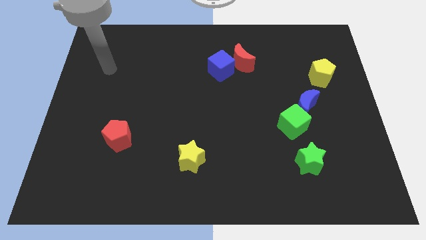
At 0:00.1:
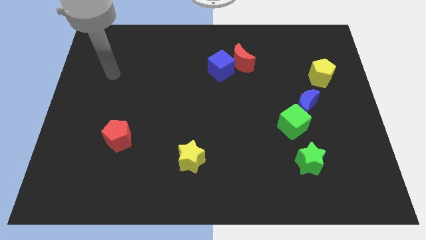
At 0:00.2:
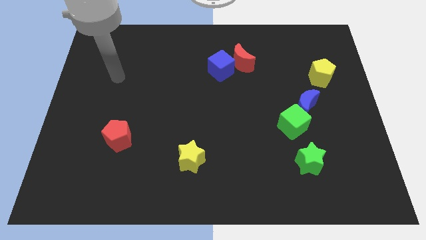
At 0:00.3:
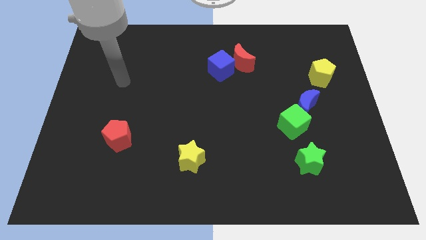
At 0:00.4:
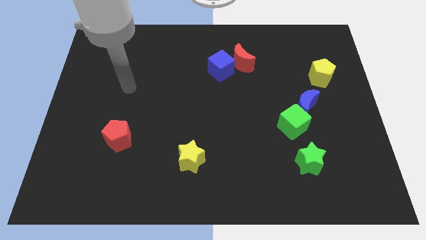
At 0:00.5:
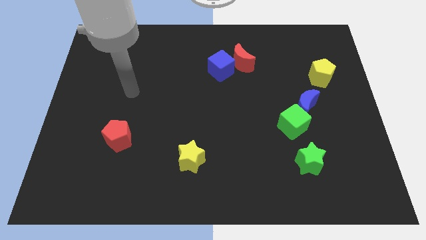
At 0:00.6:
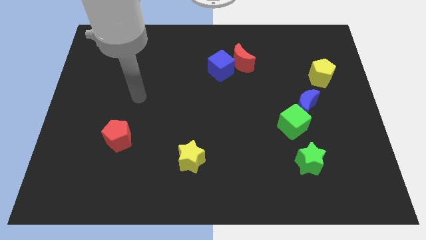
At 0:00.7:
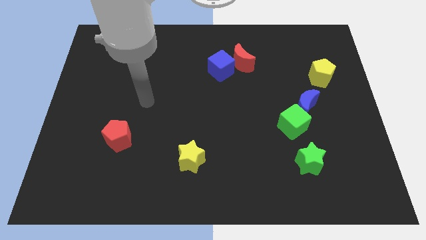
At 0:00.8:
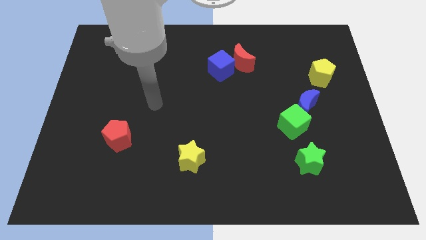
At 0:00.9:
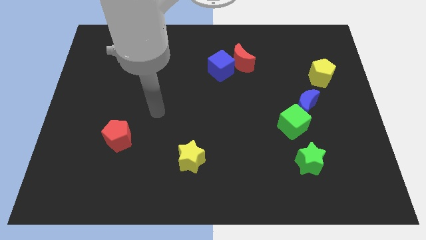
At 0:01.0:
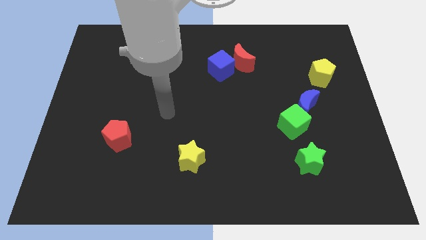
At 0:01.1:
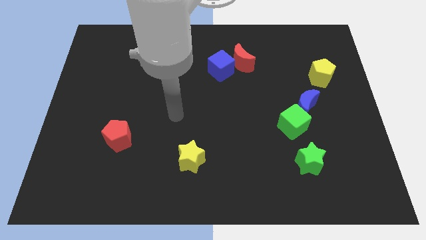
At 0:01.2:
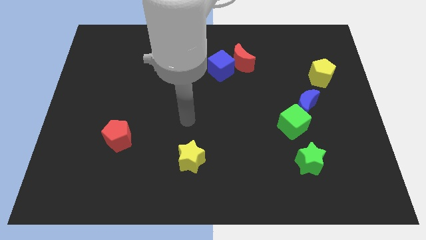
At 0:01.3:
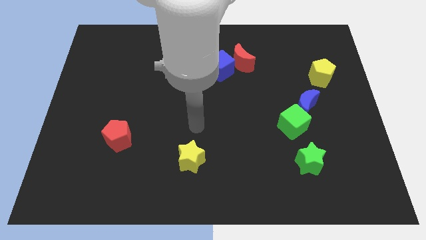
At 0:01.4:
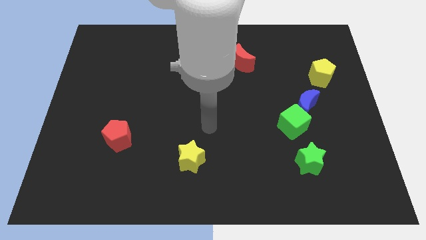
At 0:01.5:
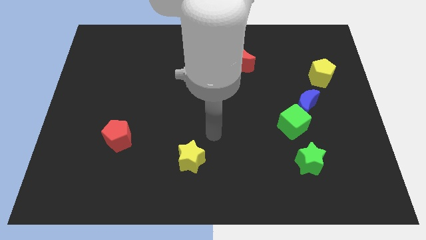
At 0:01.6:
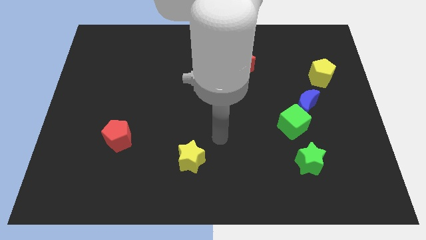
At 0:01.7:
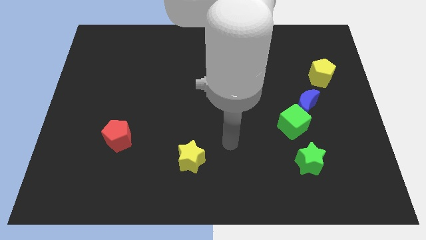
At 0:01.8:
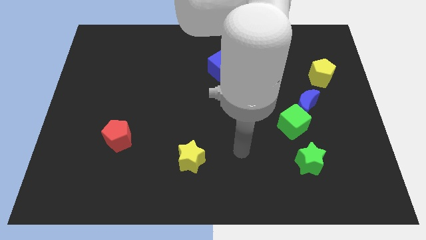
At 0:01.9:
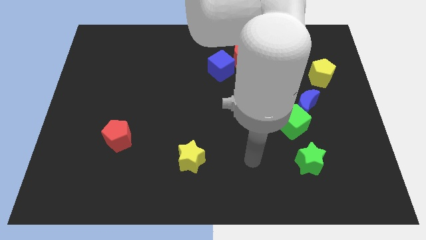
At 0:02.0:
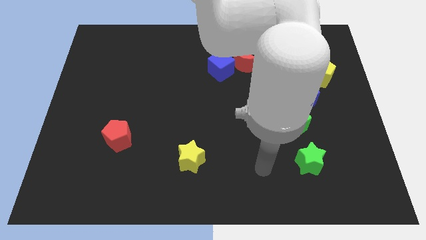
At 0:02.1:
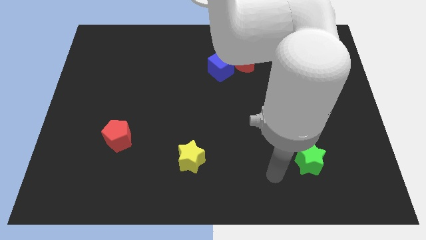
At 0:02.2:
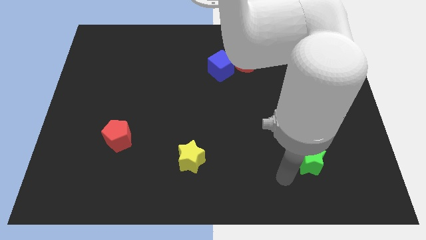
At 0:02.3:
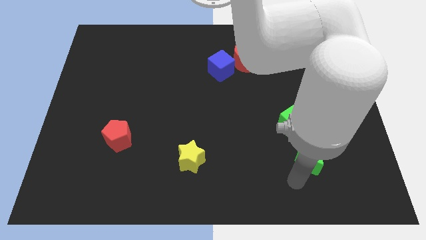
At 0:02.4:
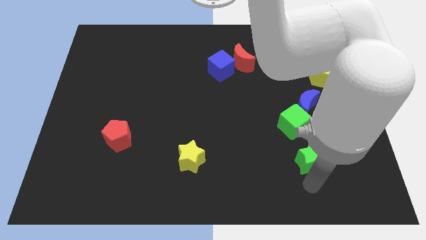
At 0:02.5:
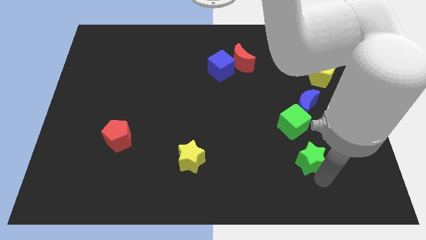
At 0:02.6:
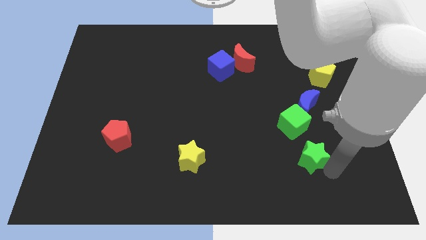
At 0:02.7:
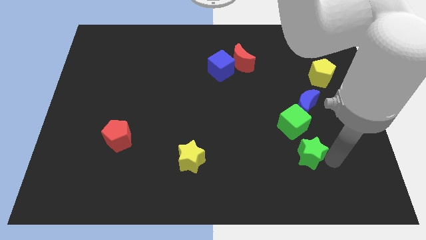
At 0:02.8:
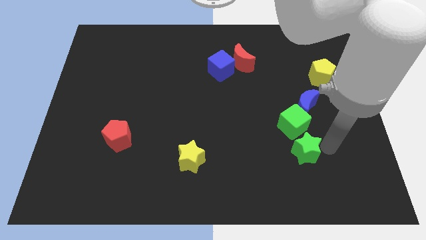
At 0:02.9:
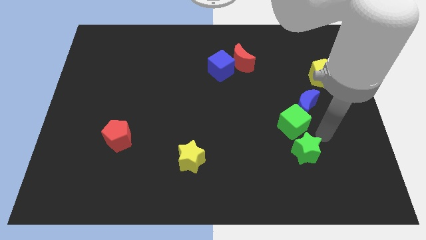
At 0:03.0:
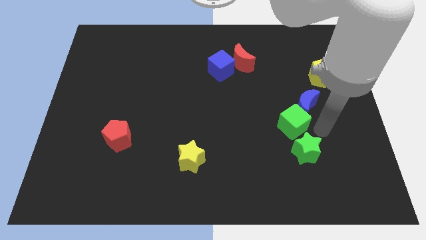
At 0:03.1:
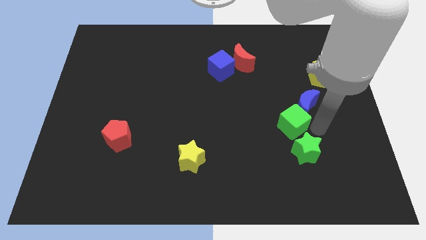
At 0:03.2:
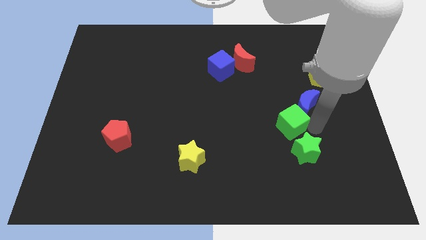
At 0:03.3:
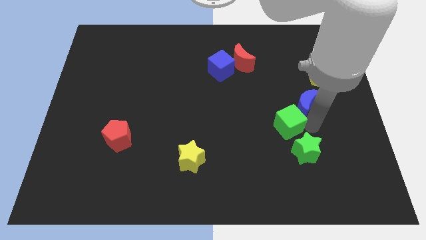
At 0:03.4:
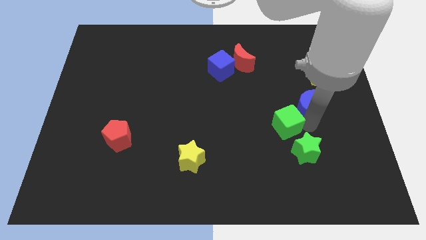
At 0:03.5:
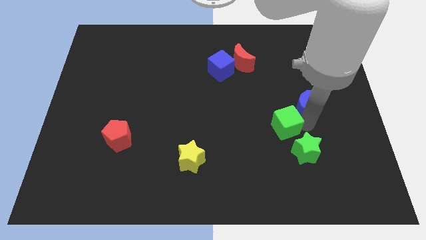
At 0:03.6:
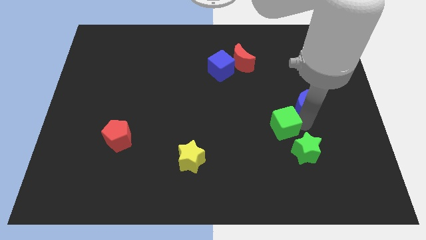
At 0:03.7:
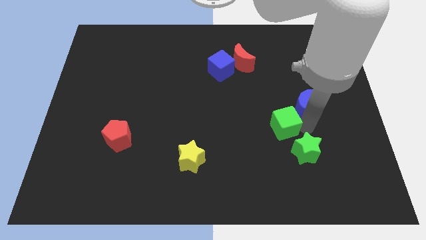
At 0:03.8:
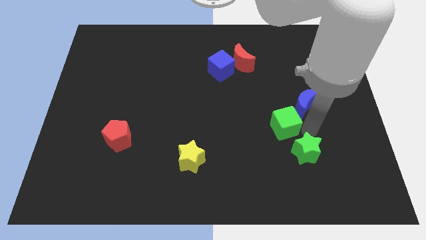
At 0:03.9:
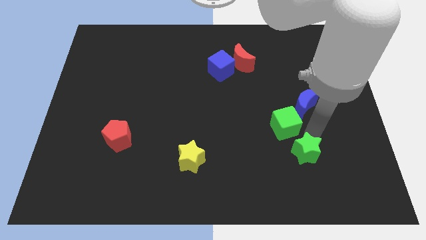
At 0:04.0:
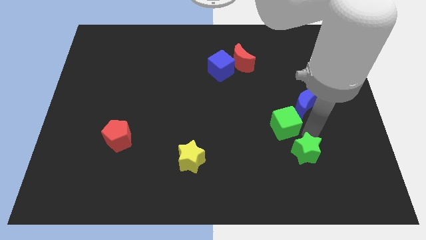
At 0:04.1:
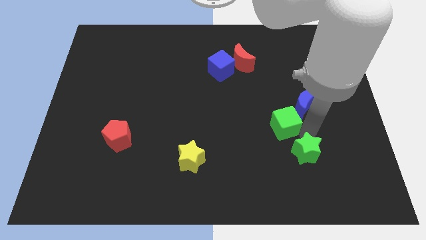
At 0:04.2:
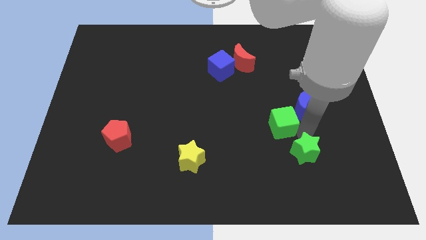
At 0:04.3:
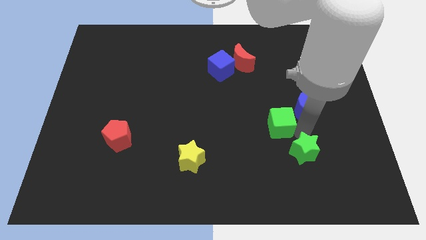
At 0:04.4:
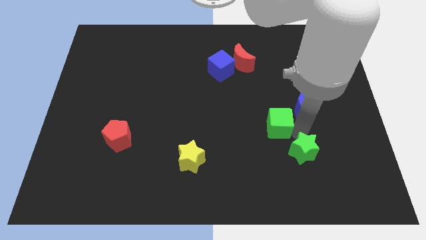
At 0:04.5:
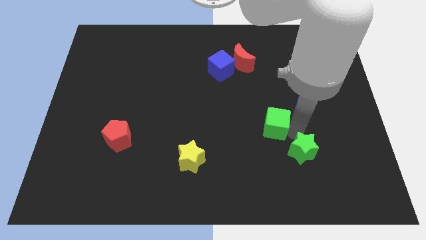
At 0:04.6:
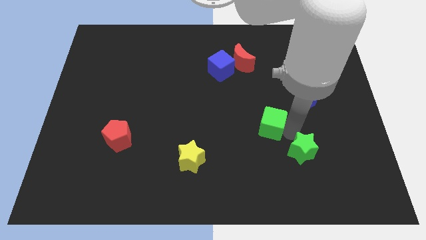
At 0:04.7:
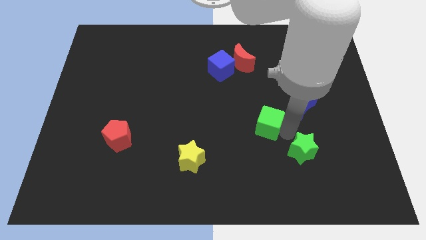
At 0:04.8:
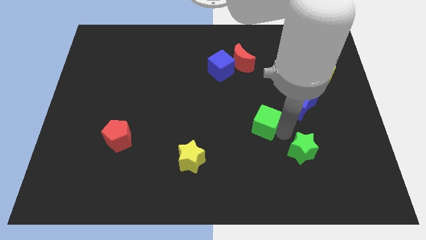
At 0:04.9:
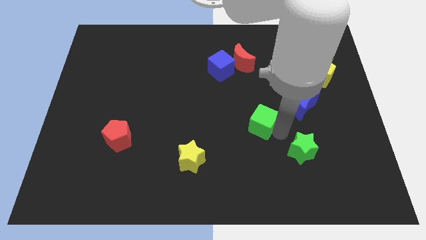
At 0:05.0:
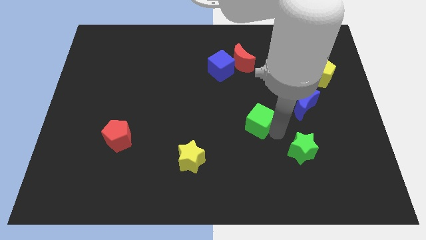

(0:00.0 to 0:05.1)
put the green cube to the center

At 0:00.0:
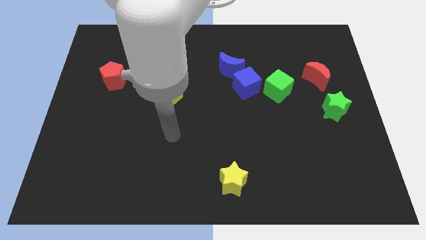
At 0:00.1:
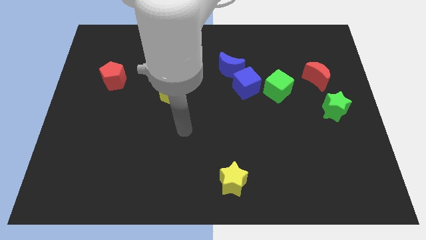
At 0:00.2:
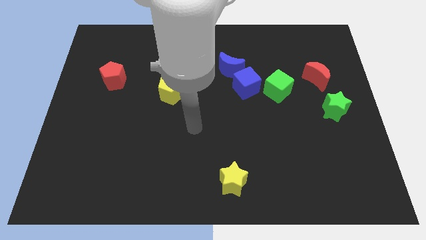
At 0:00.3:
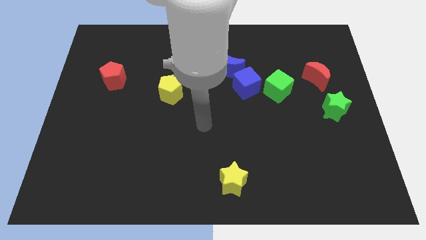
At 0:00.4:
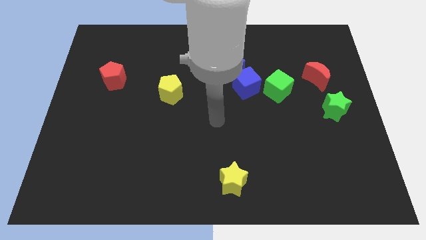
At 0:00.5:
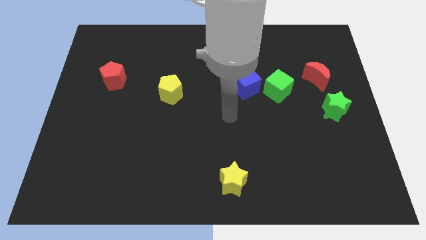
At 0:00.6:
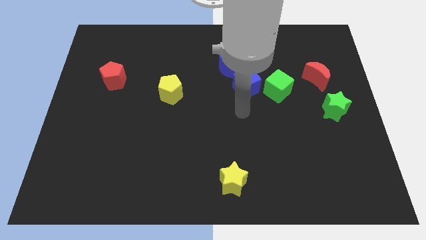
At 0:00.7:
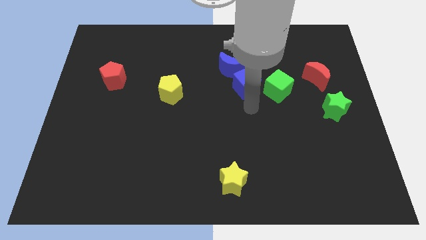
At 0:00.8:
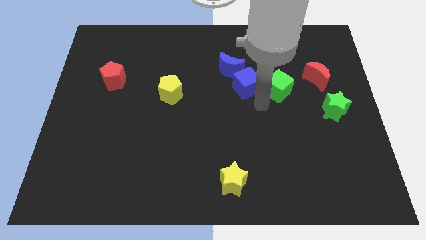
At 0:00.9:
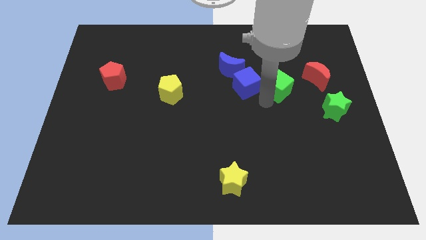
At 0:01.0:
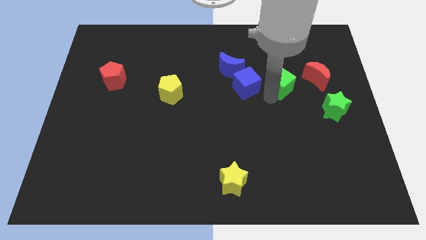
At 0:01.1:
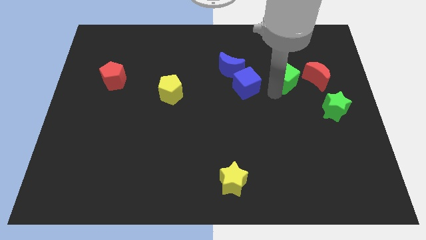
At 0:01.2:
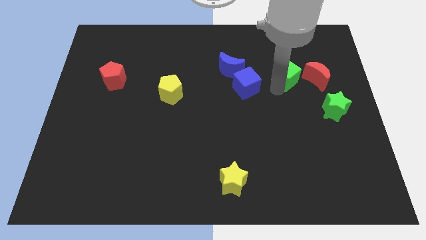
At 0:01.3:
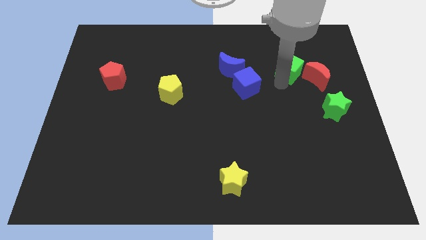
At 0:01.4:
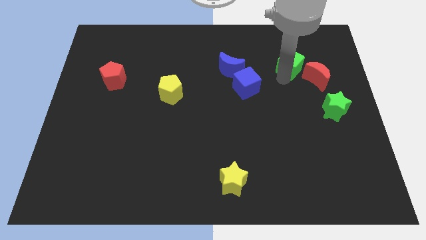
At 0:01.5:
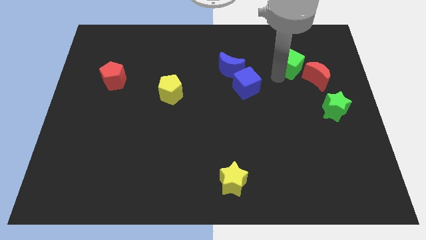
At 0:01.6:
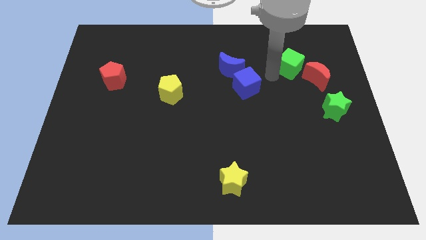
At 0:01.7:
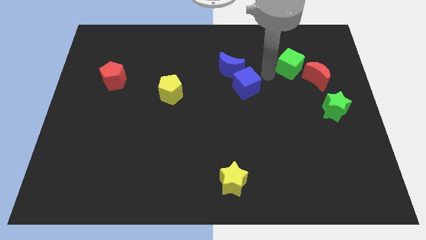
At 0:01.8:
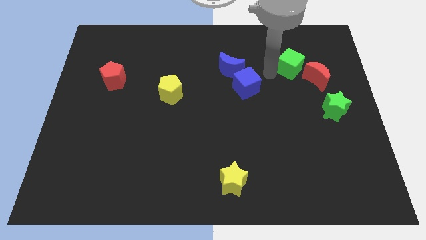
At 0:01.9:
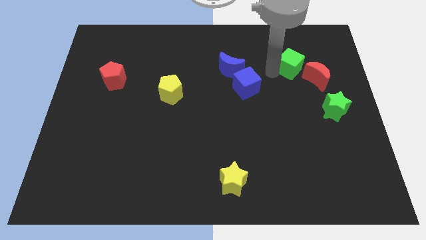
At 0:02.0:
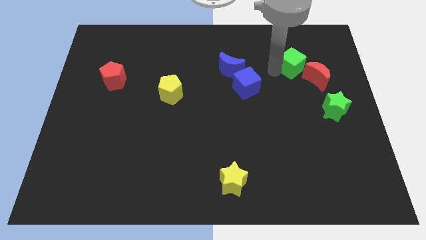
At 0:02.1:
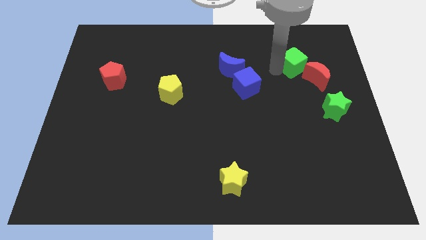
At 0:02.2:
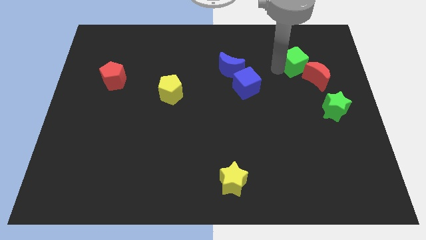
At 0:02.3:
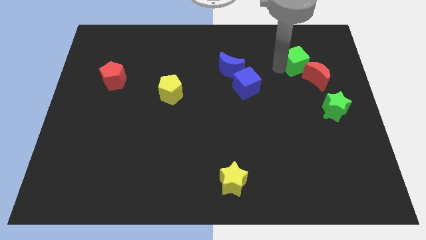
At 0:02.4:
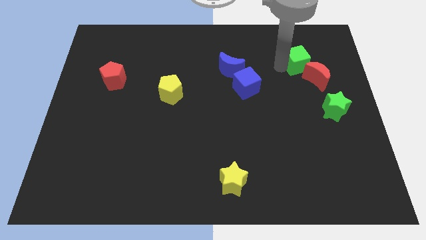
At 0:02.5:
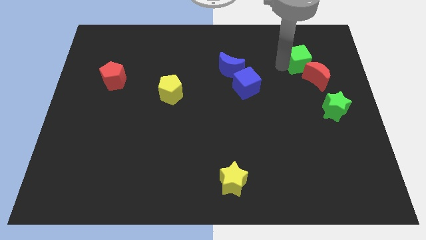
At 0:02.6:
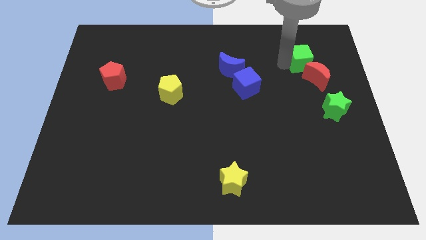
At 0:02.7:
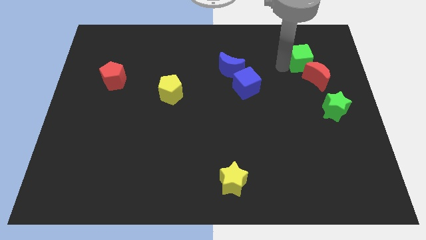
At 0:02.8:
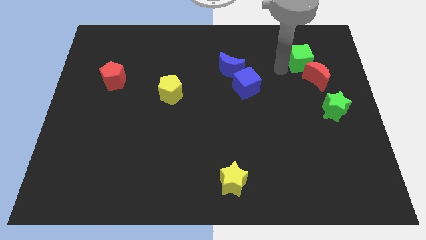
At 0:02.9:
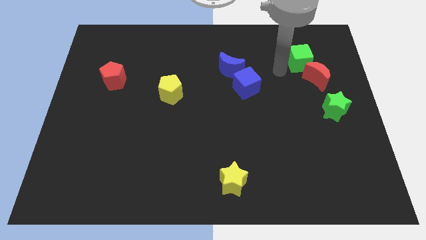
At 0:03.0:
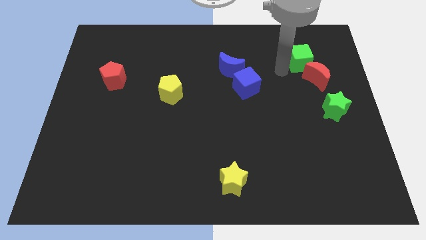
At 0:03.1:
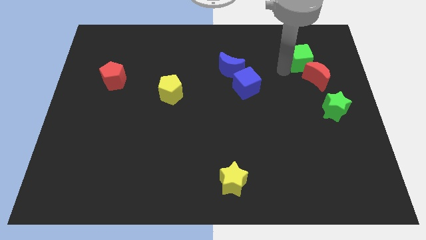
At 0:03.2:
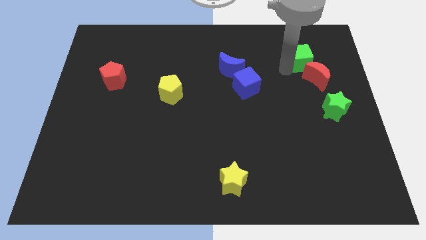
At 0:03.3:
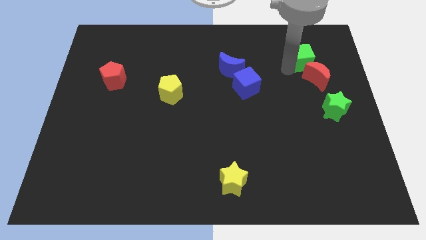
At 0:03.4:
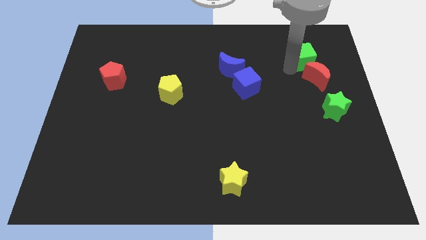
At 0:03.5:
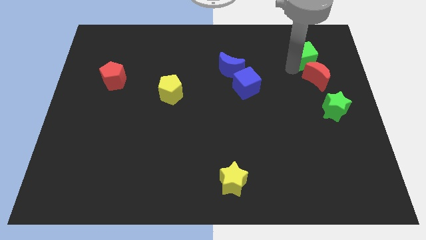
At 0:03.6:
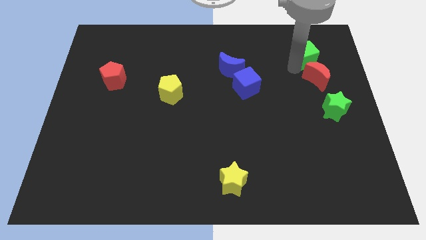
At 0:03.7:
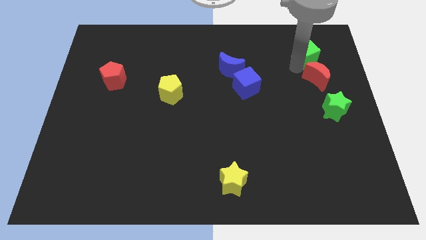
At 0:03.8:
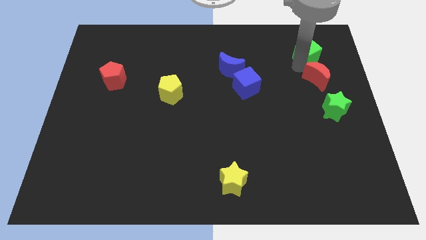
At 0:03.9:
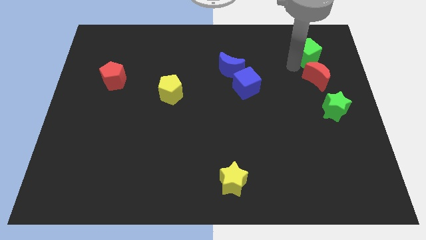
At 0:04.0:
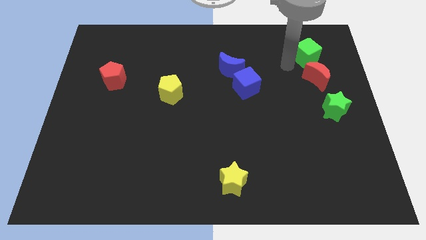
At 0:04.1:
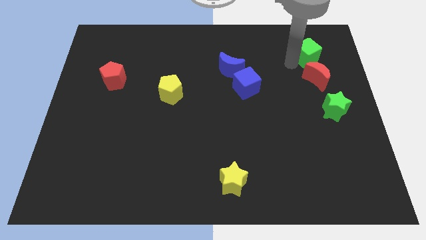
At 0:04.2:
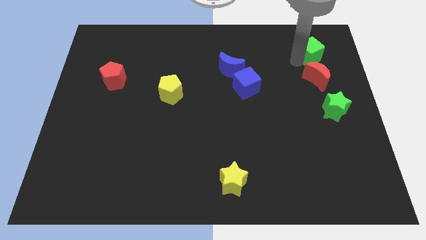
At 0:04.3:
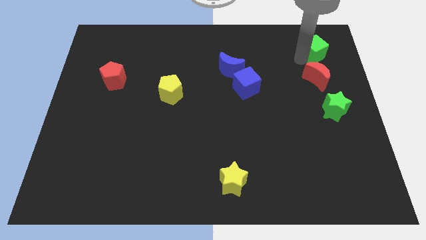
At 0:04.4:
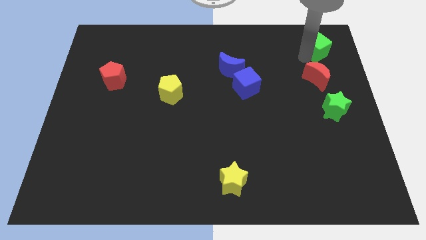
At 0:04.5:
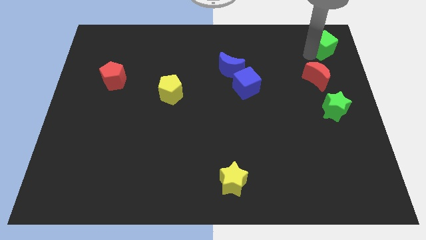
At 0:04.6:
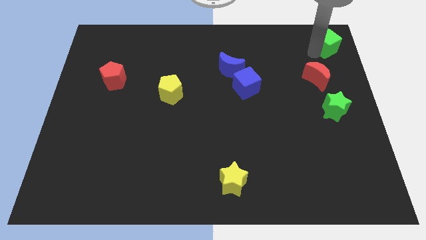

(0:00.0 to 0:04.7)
slide the green cube to the upper right corner
